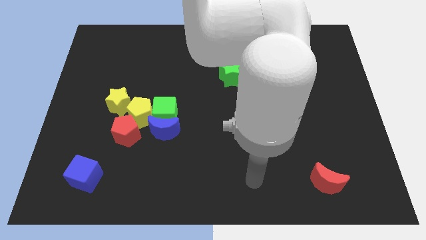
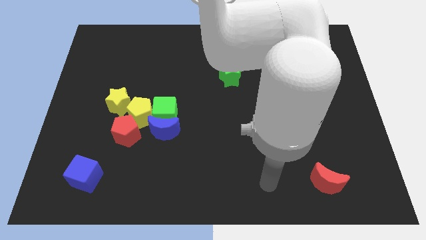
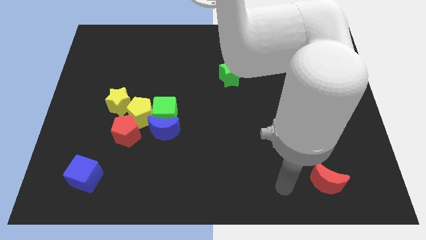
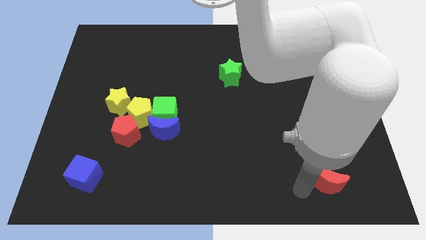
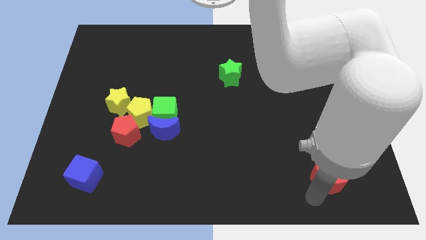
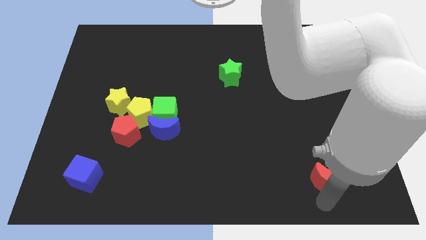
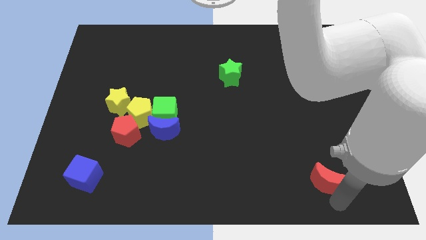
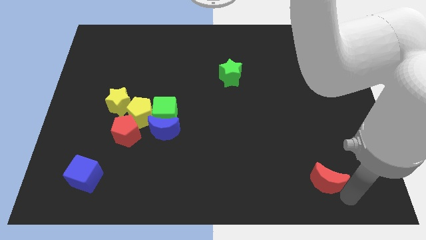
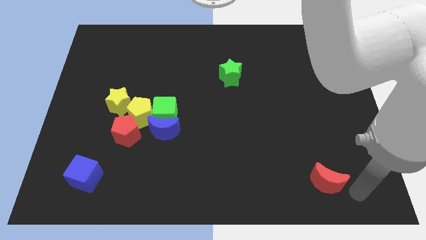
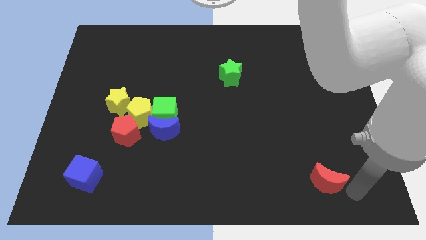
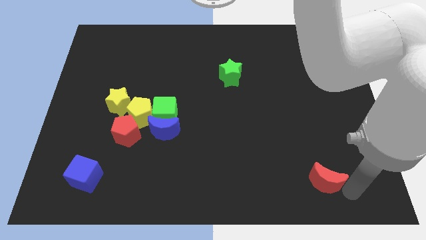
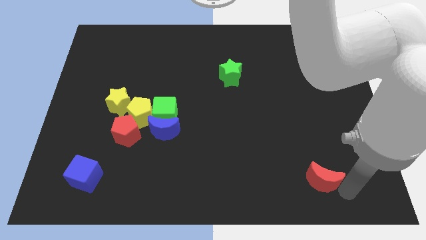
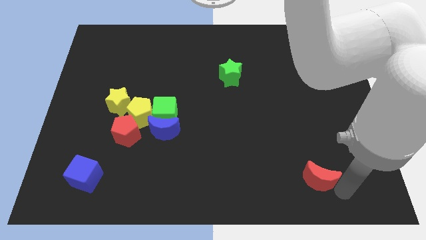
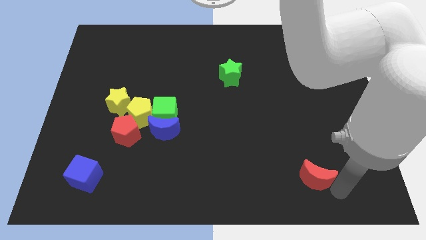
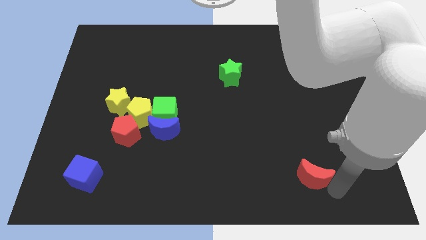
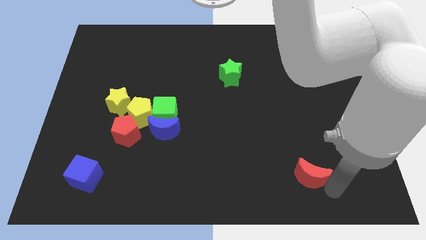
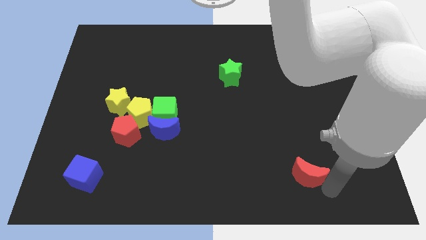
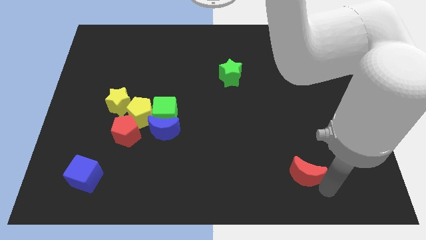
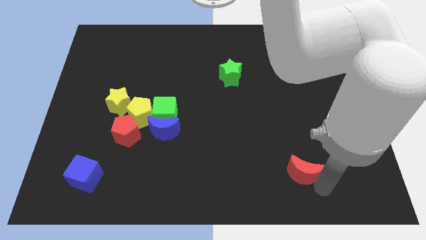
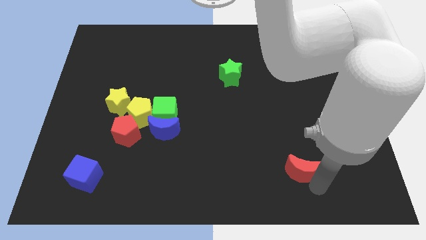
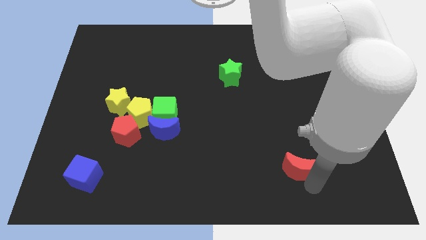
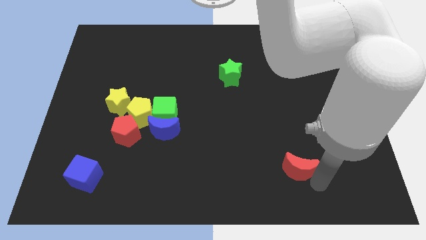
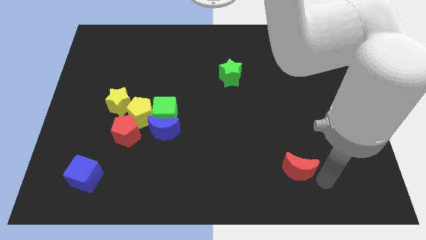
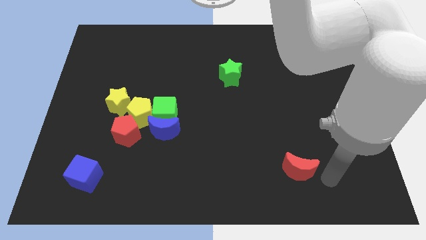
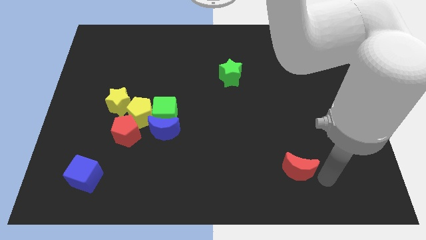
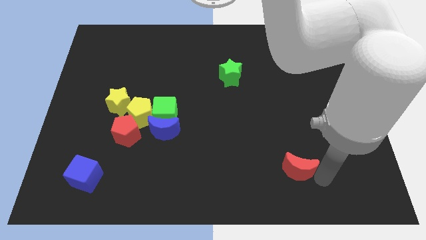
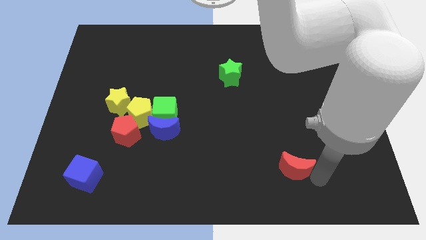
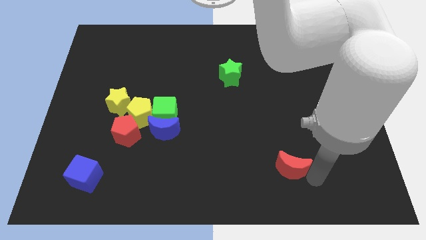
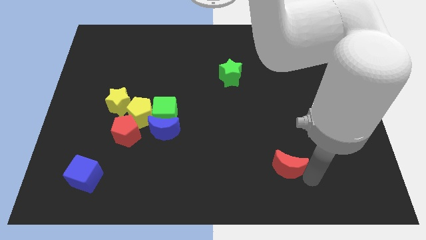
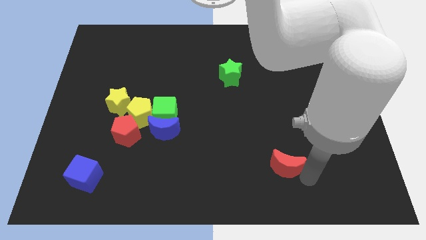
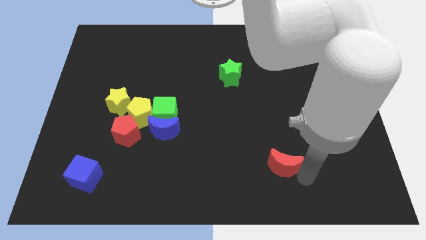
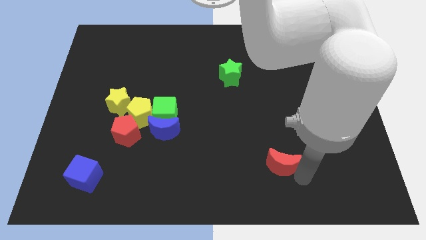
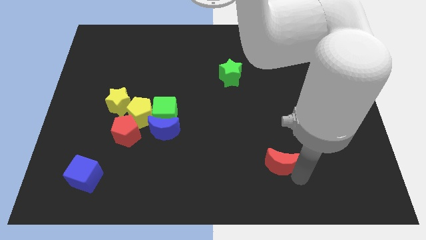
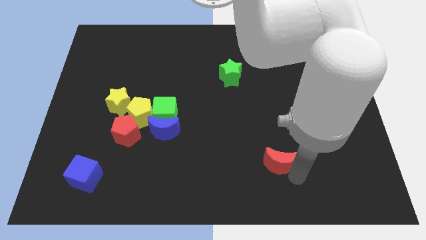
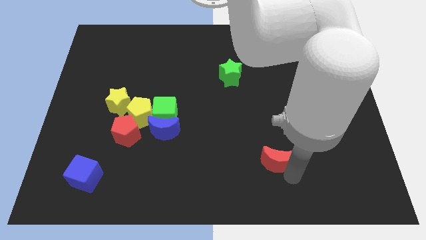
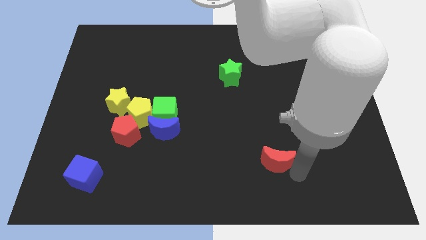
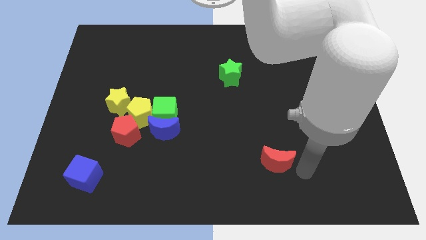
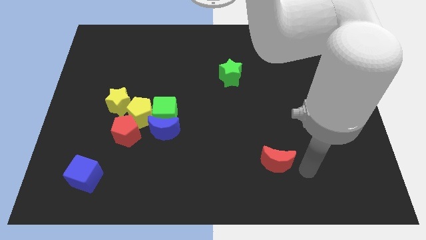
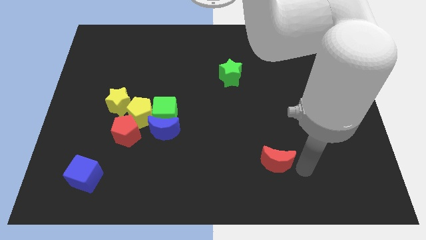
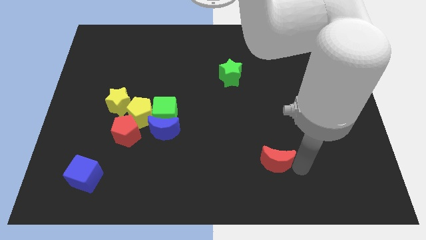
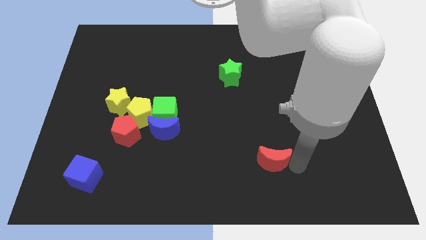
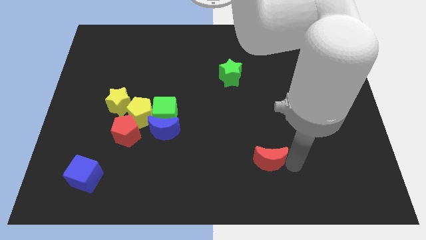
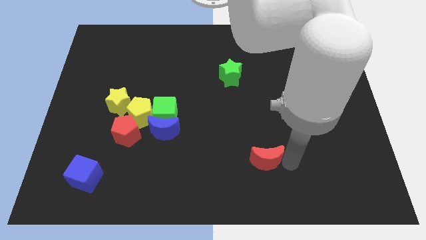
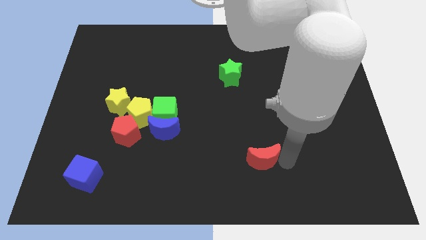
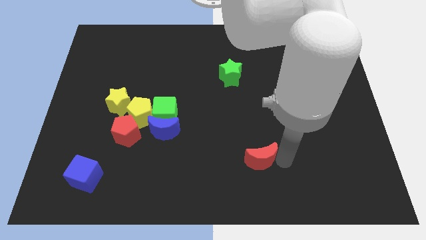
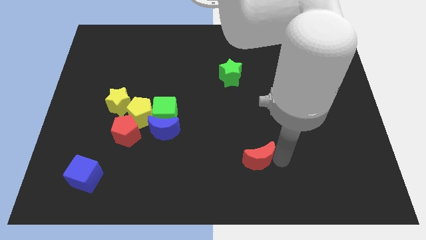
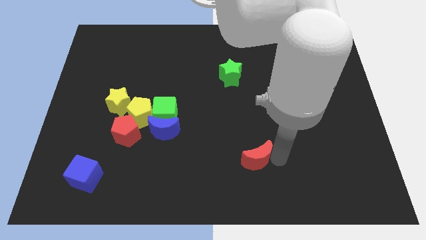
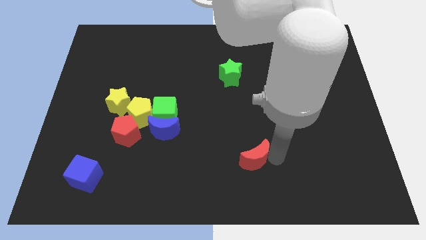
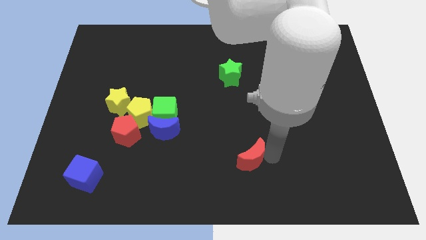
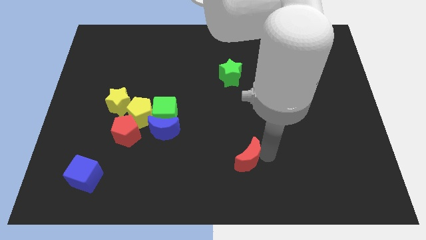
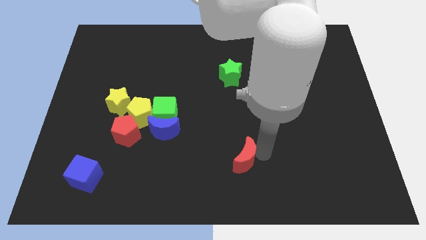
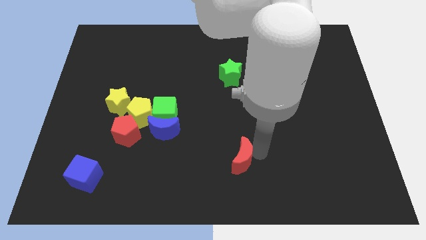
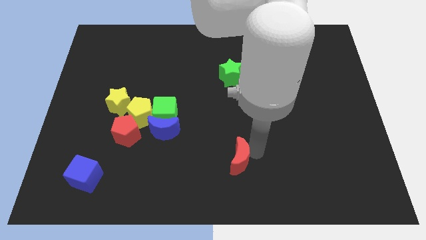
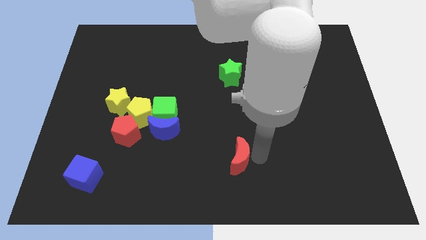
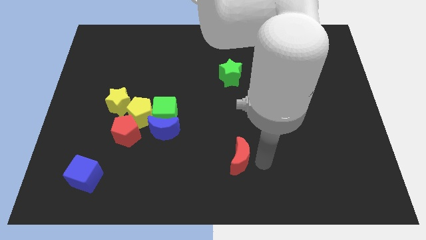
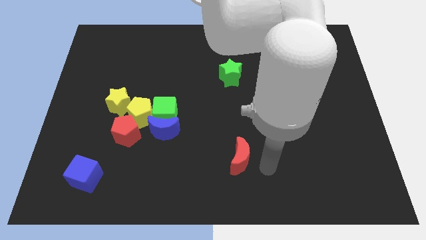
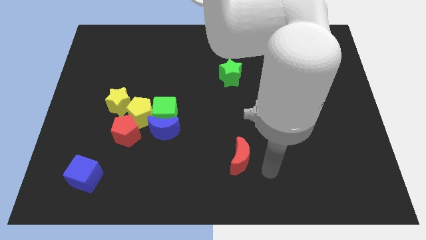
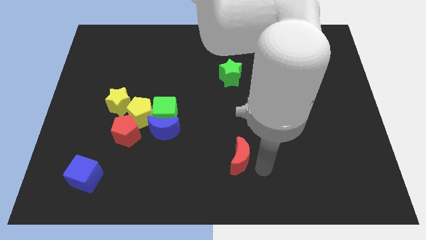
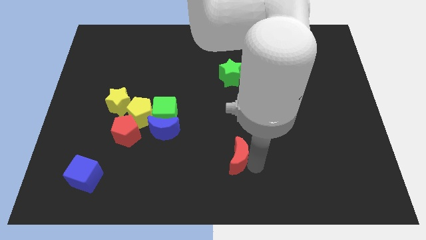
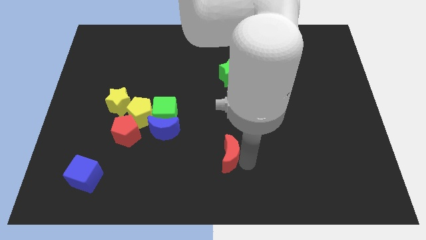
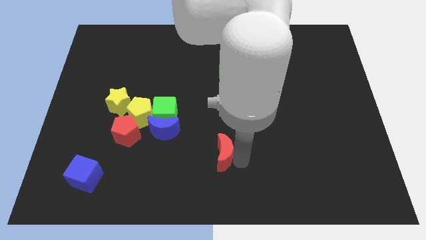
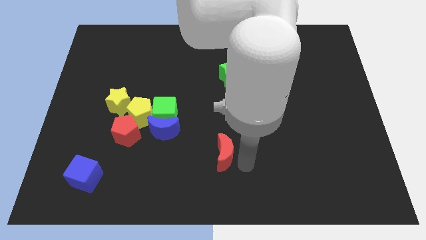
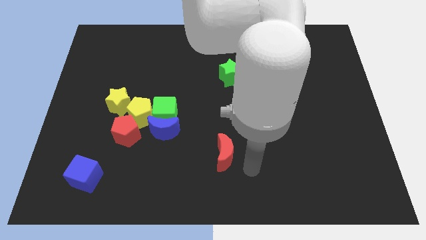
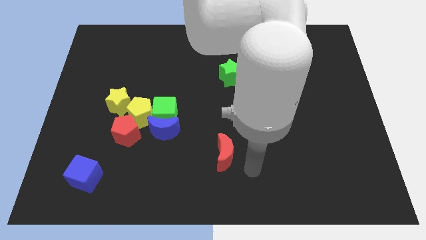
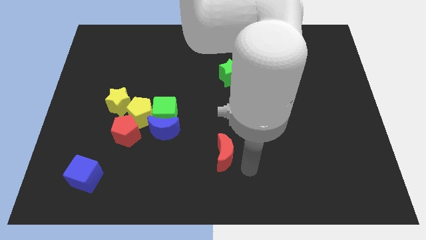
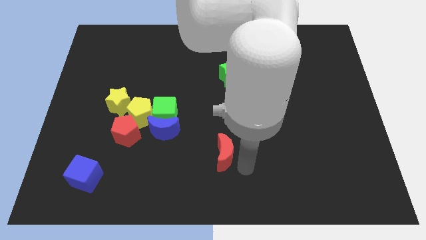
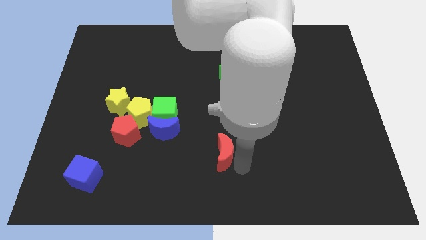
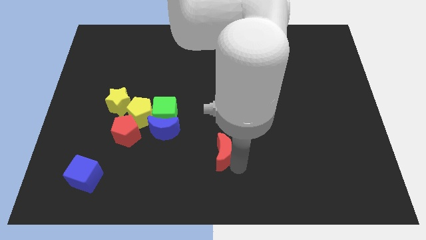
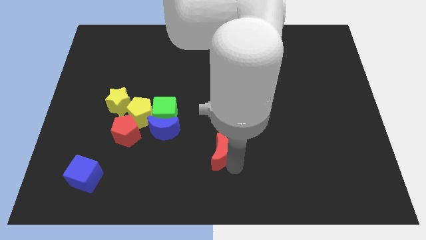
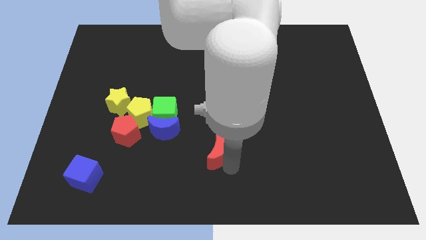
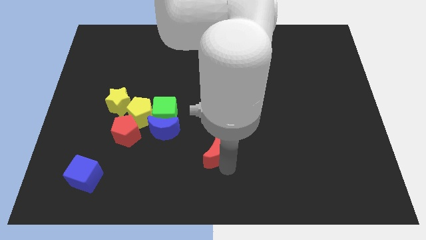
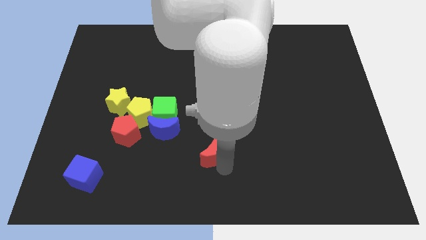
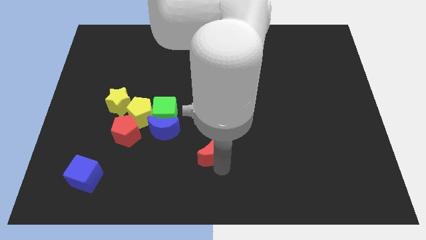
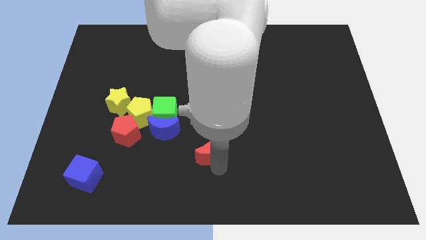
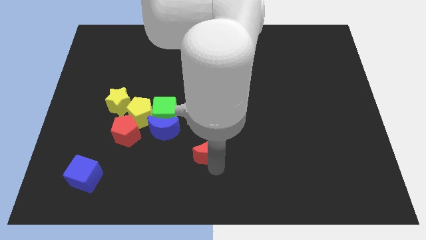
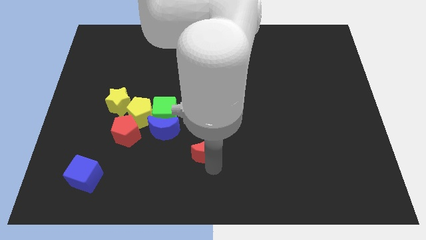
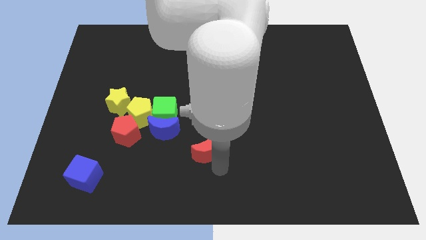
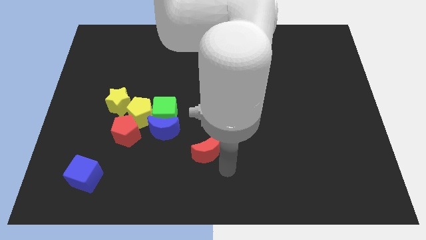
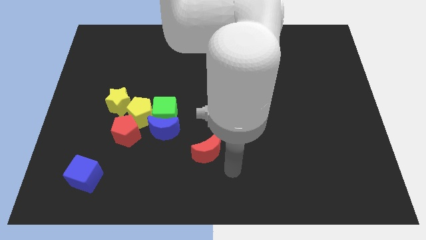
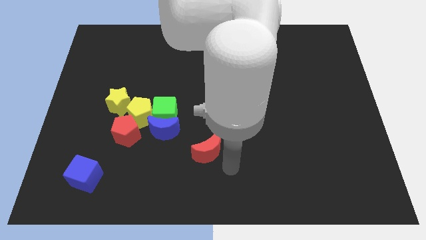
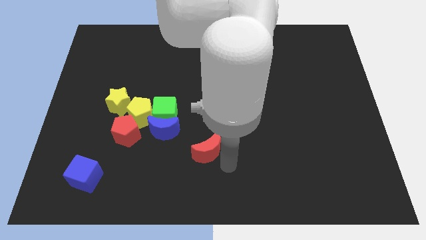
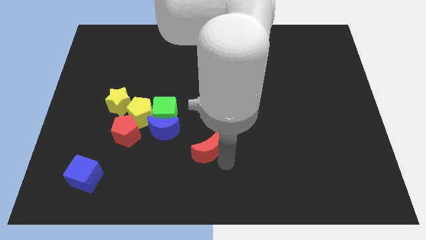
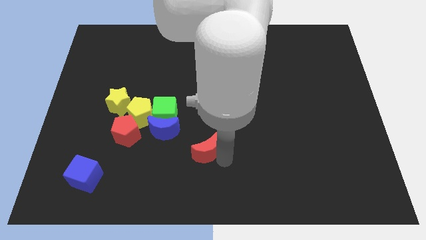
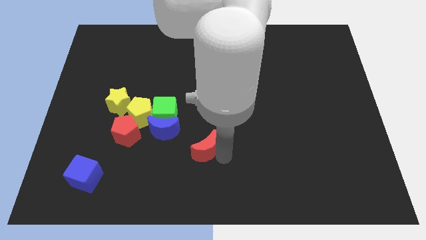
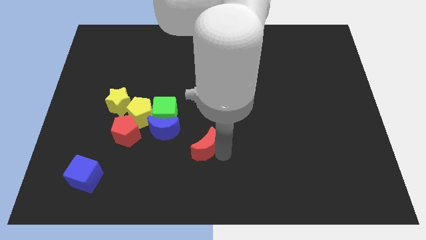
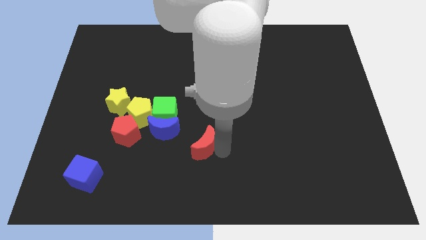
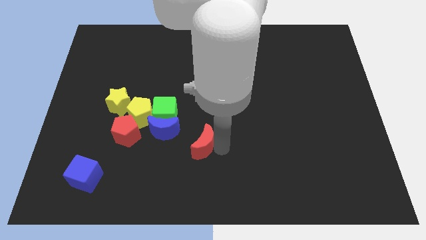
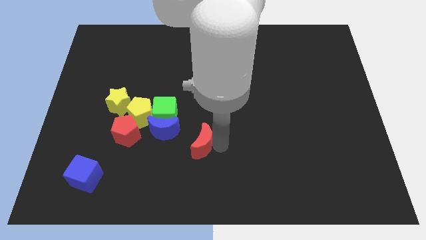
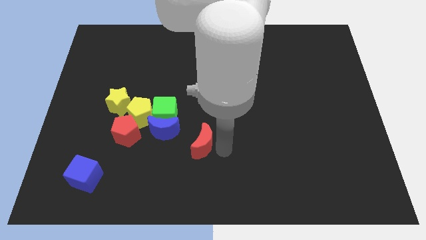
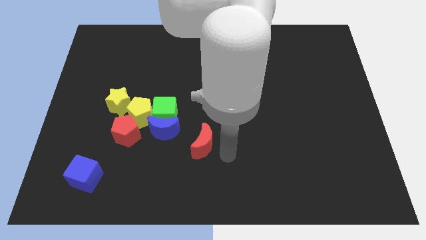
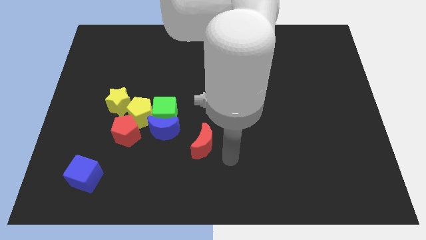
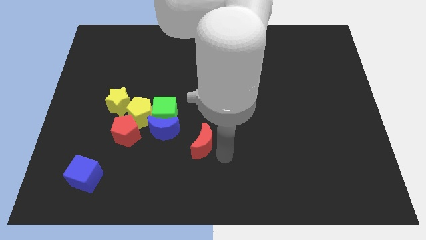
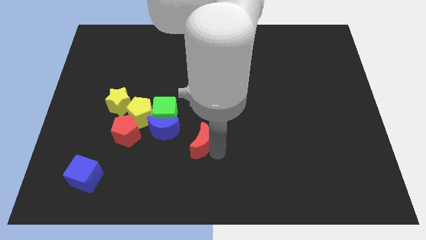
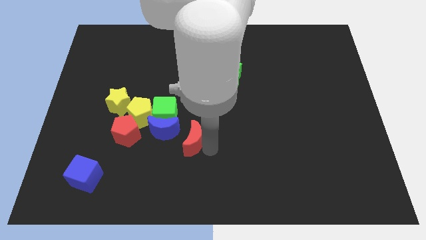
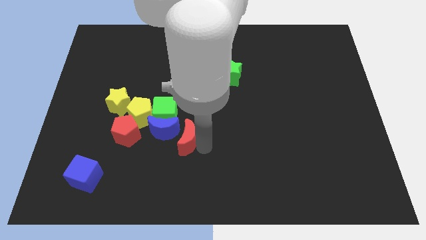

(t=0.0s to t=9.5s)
put the red moon close to the blue moon
